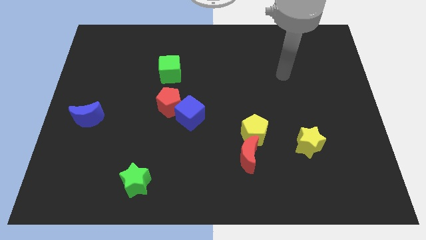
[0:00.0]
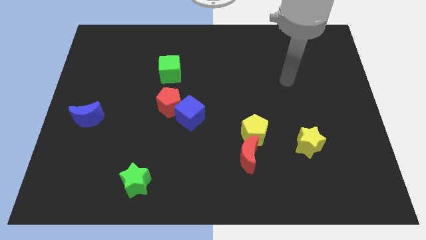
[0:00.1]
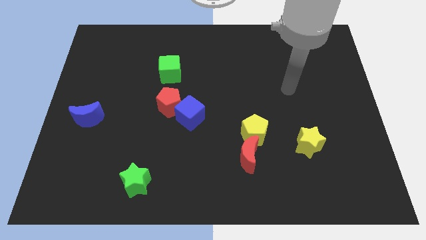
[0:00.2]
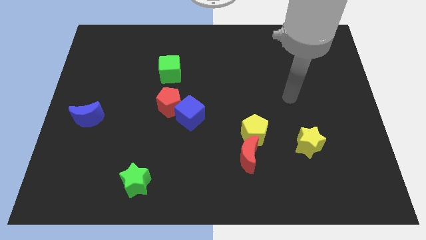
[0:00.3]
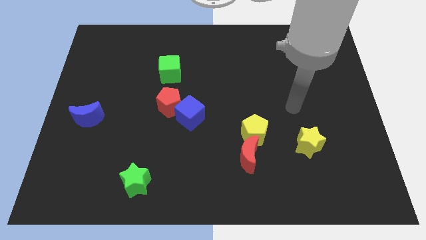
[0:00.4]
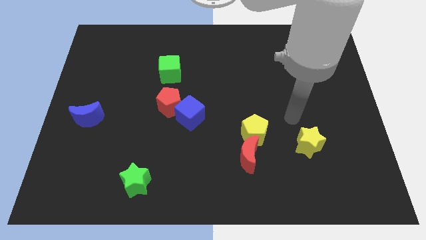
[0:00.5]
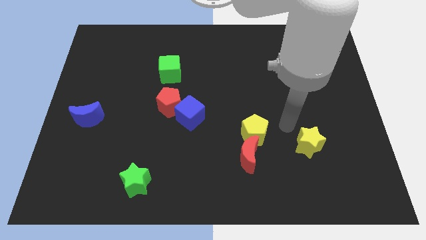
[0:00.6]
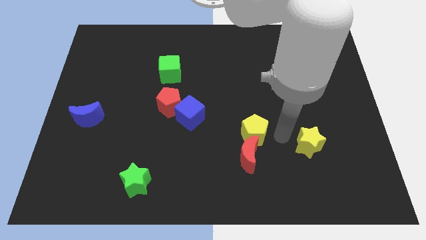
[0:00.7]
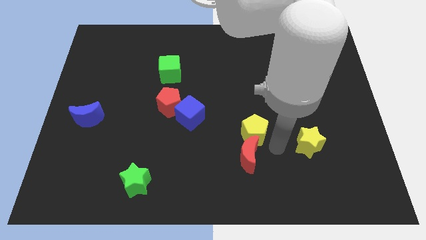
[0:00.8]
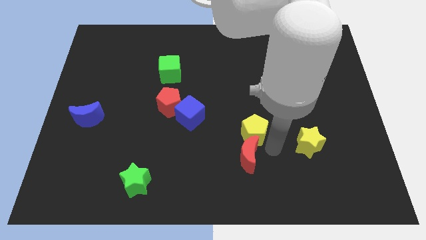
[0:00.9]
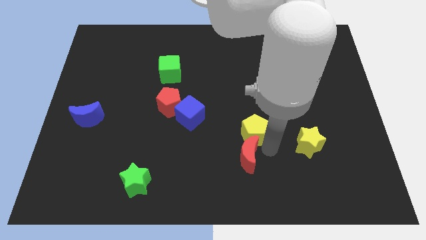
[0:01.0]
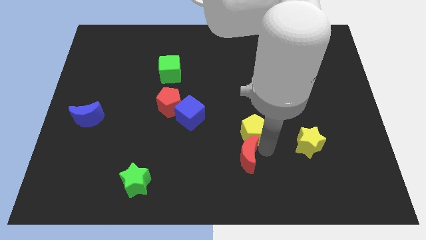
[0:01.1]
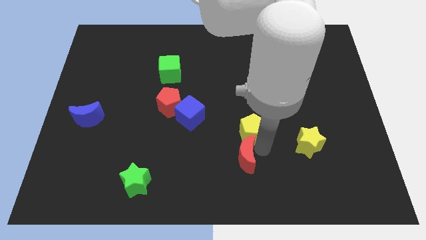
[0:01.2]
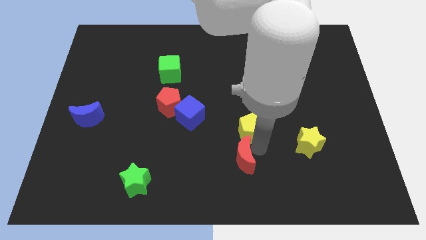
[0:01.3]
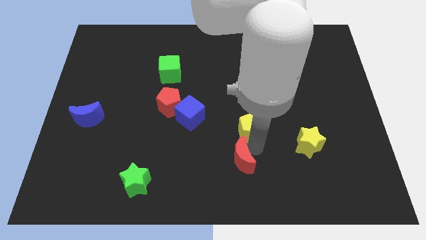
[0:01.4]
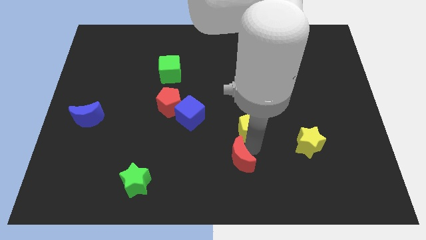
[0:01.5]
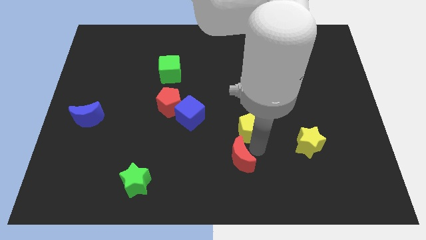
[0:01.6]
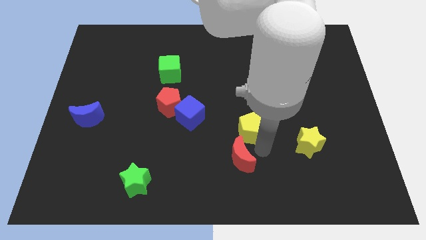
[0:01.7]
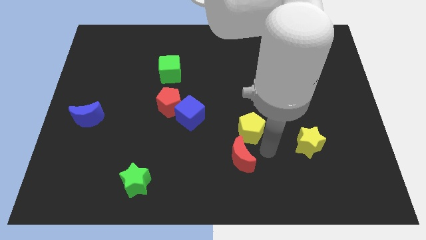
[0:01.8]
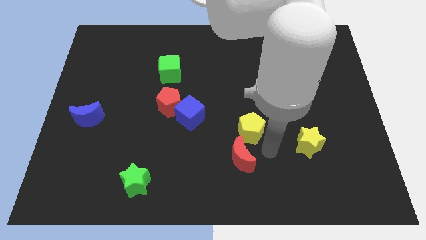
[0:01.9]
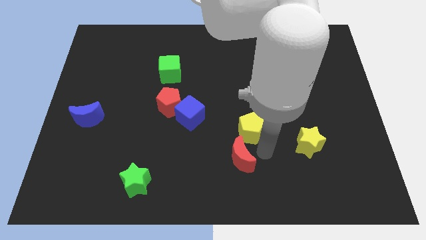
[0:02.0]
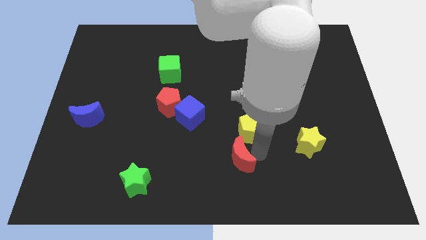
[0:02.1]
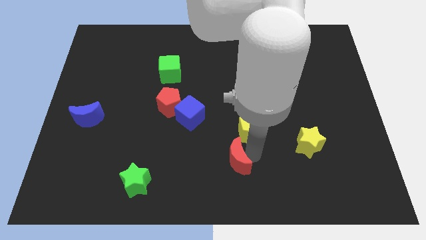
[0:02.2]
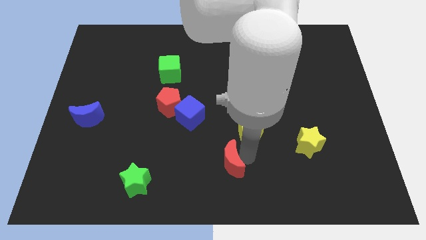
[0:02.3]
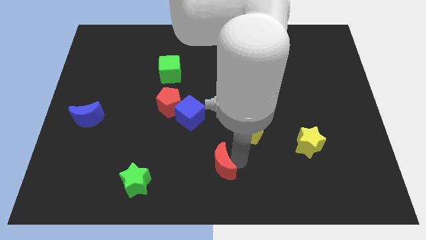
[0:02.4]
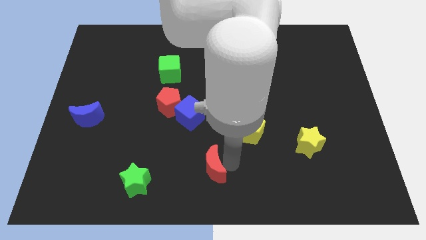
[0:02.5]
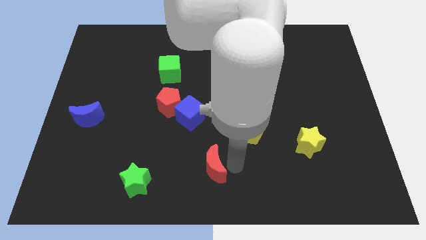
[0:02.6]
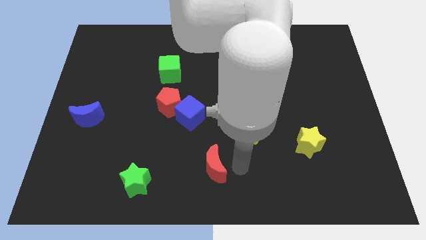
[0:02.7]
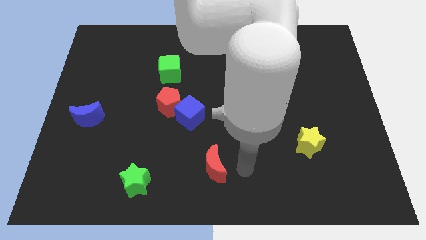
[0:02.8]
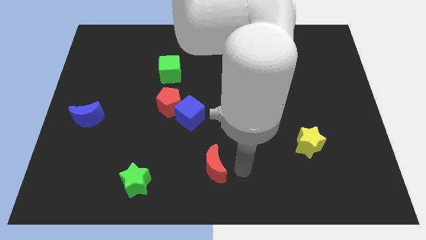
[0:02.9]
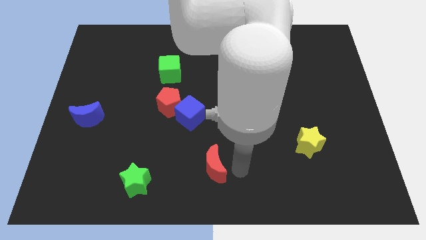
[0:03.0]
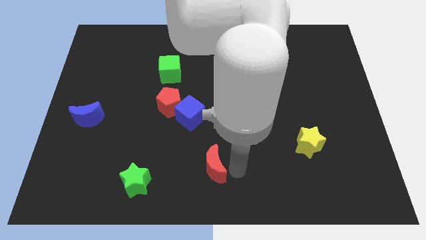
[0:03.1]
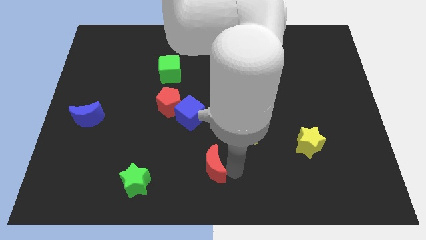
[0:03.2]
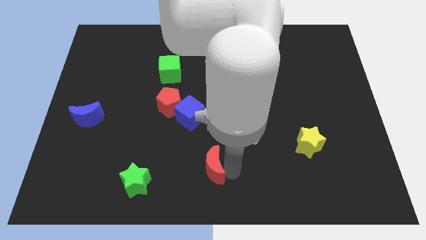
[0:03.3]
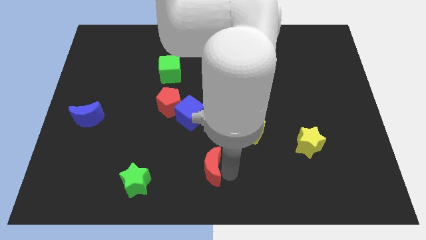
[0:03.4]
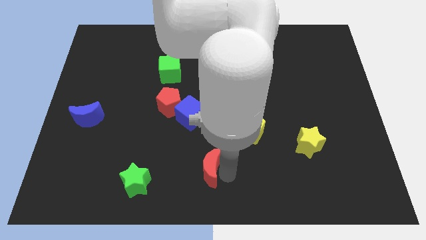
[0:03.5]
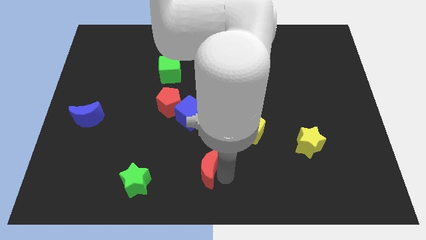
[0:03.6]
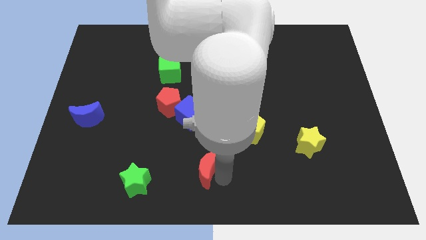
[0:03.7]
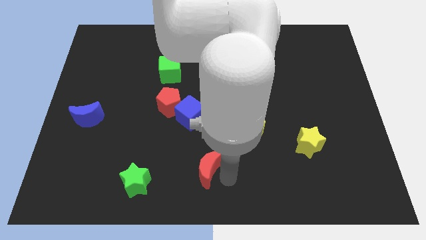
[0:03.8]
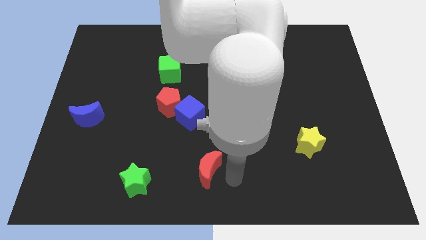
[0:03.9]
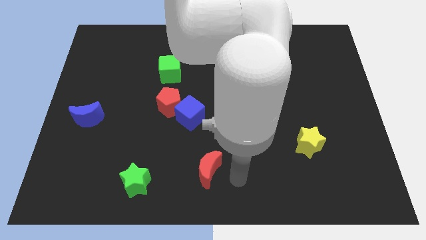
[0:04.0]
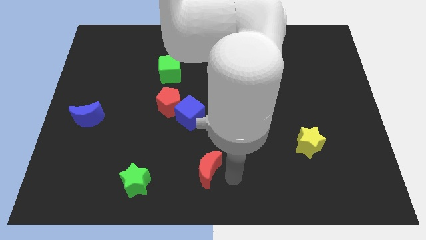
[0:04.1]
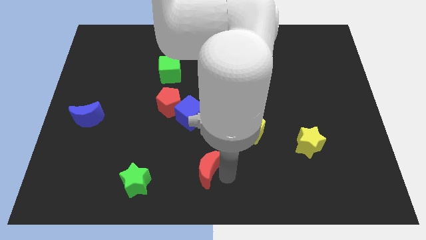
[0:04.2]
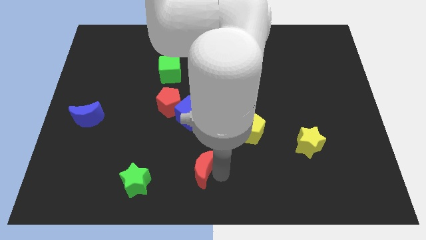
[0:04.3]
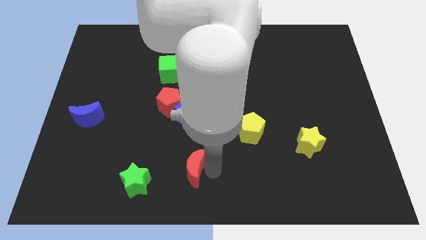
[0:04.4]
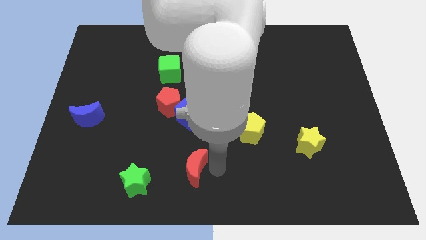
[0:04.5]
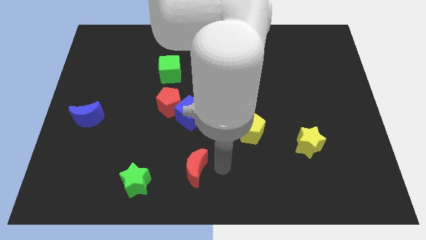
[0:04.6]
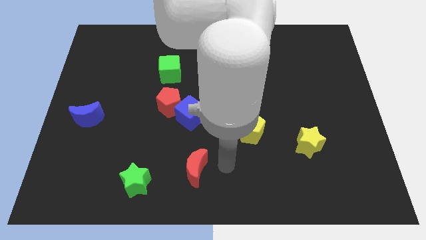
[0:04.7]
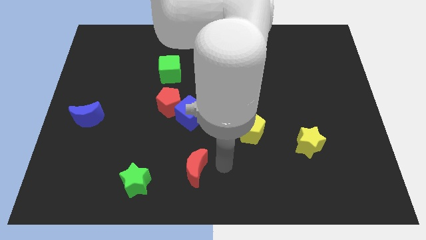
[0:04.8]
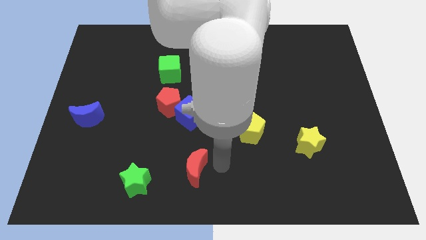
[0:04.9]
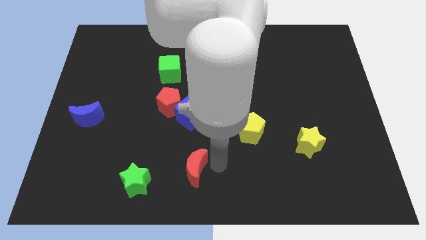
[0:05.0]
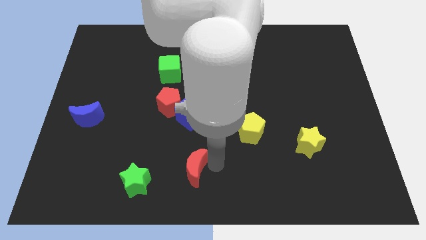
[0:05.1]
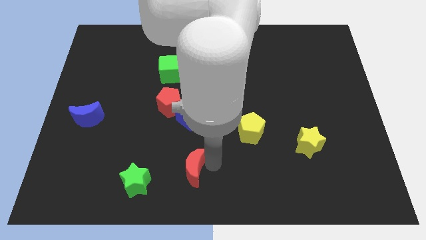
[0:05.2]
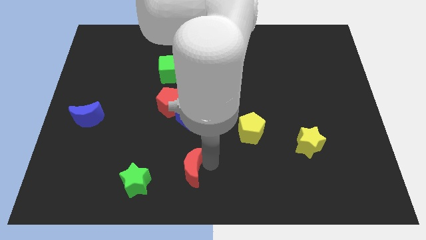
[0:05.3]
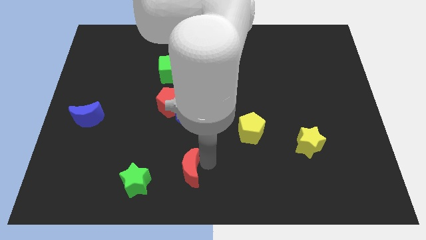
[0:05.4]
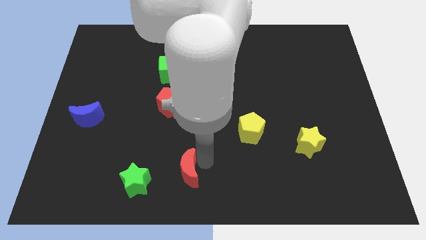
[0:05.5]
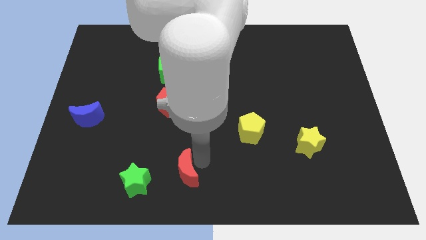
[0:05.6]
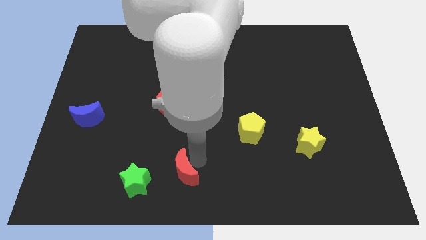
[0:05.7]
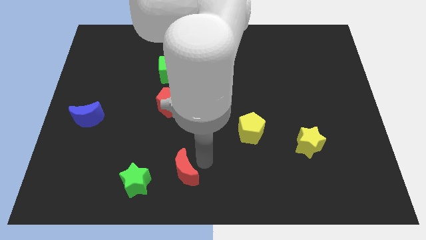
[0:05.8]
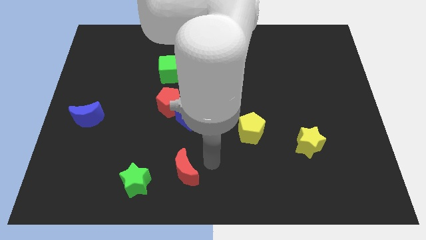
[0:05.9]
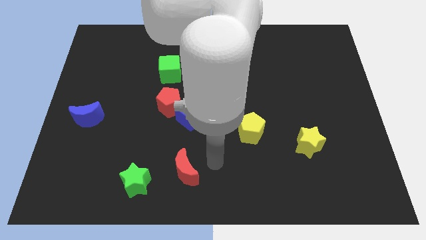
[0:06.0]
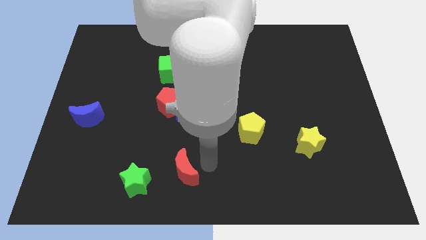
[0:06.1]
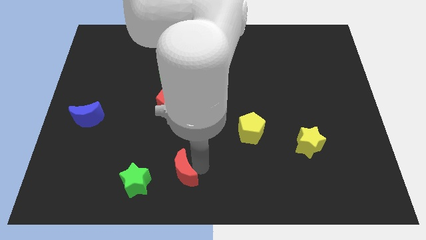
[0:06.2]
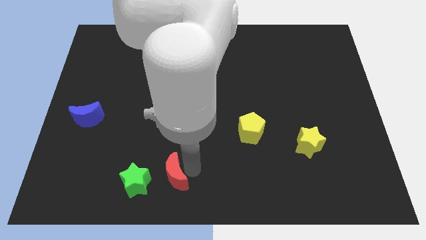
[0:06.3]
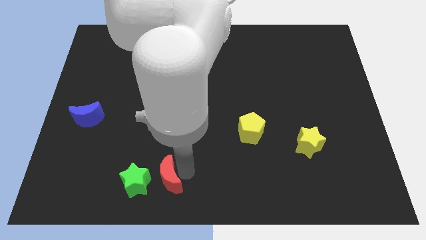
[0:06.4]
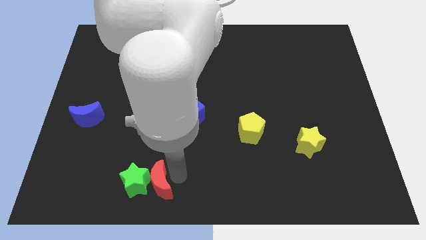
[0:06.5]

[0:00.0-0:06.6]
put the red moon close to the green star

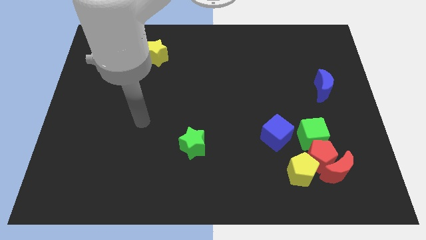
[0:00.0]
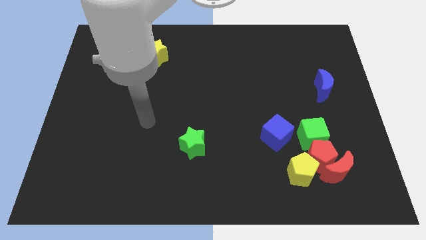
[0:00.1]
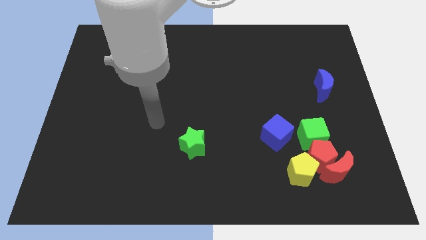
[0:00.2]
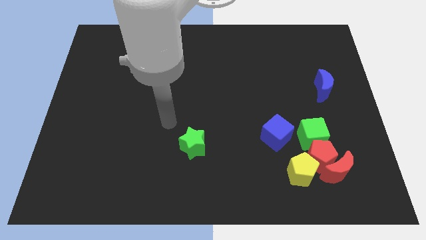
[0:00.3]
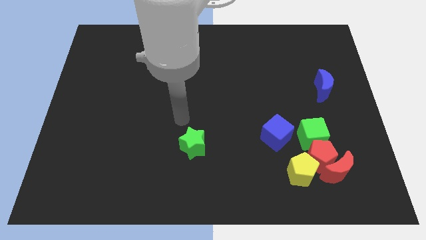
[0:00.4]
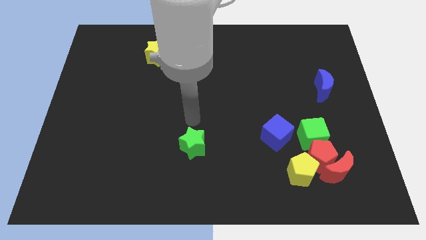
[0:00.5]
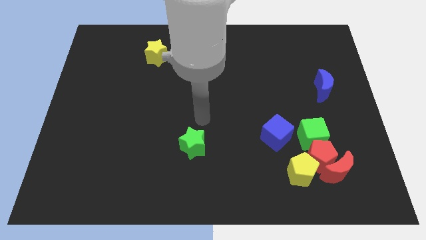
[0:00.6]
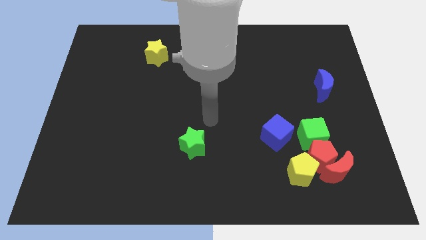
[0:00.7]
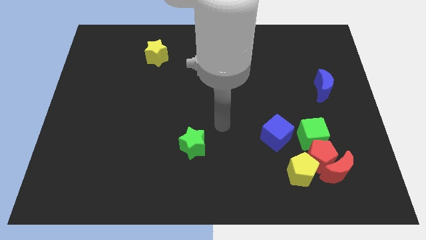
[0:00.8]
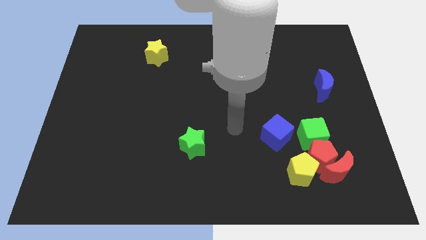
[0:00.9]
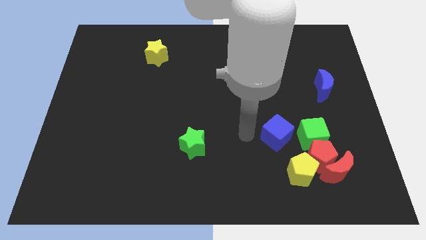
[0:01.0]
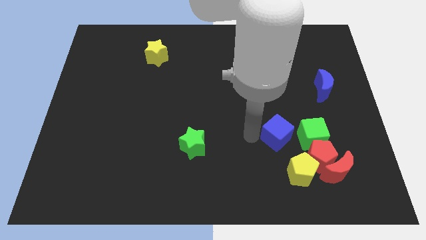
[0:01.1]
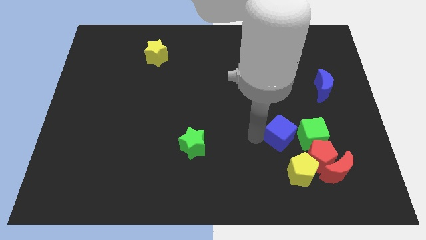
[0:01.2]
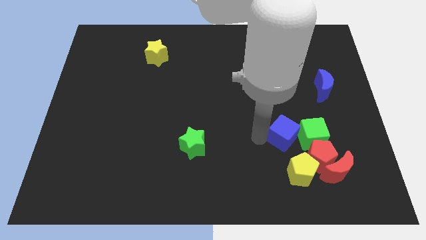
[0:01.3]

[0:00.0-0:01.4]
move the blue cube close to the green cube
